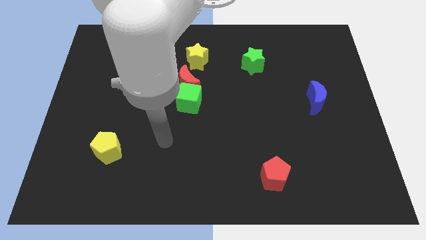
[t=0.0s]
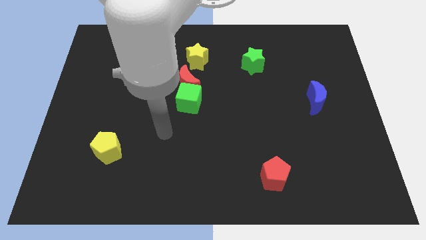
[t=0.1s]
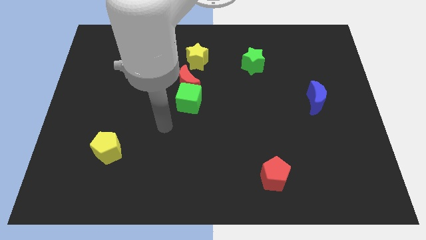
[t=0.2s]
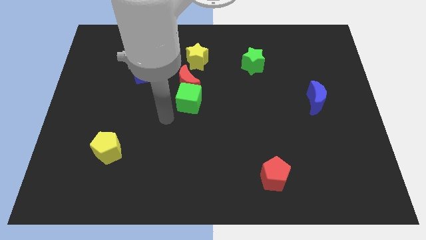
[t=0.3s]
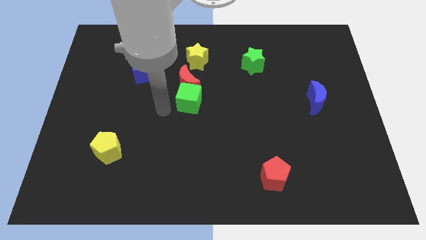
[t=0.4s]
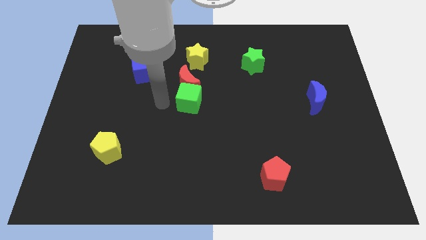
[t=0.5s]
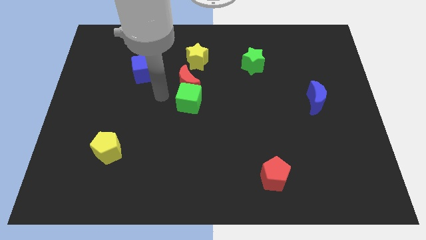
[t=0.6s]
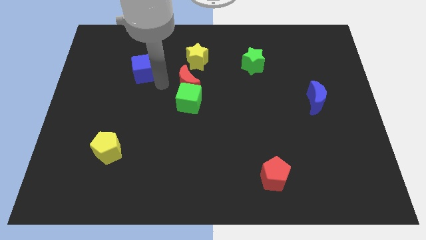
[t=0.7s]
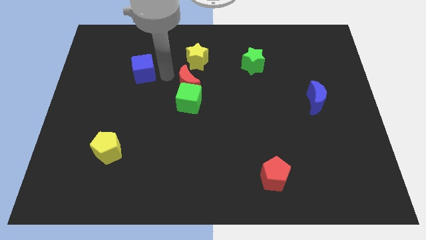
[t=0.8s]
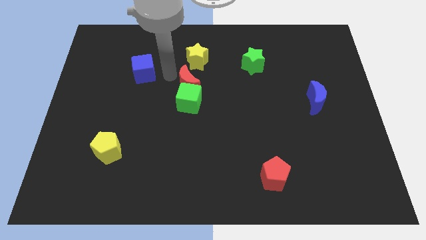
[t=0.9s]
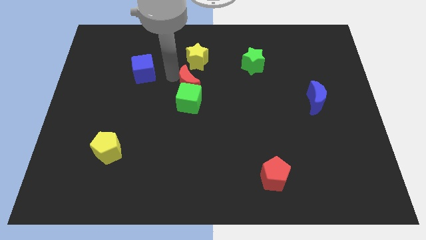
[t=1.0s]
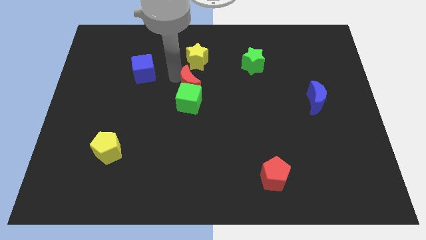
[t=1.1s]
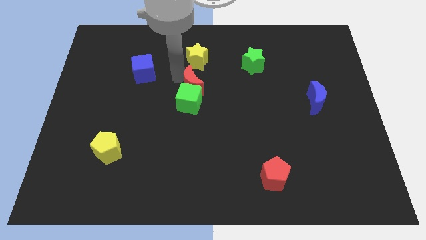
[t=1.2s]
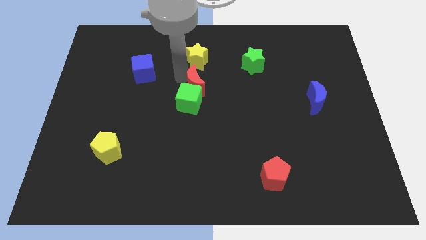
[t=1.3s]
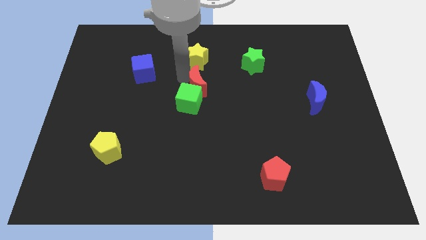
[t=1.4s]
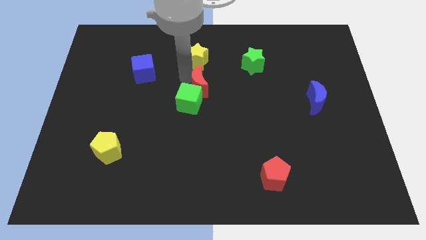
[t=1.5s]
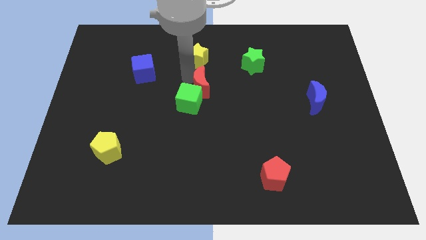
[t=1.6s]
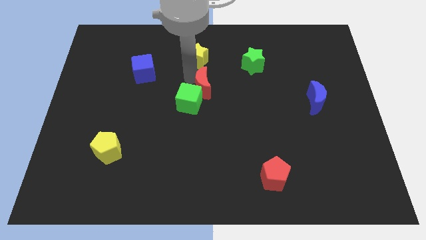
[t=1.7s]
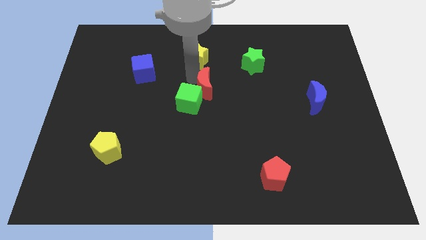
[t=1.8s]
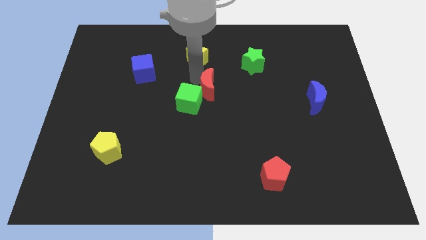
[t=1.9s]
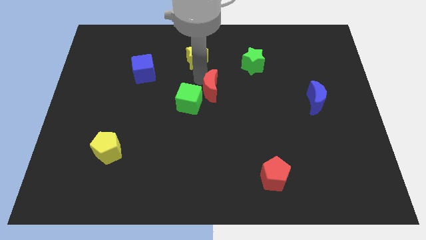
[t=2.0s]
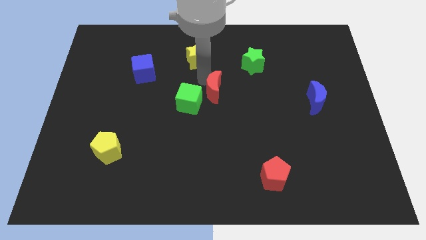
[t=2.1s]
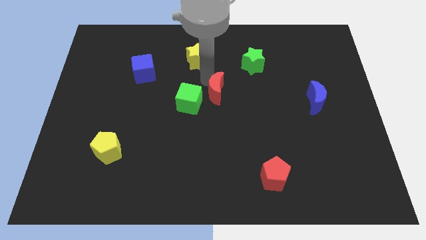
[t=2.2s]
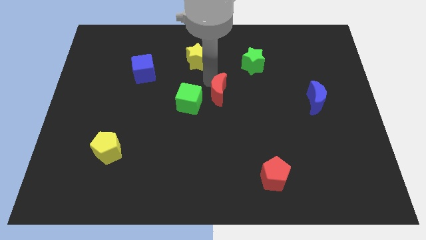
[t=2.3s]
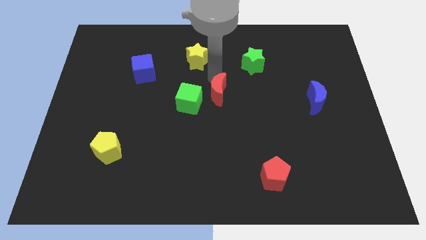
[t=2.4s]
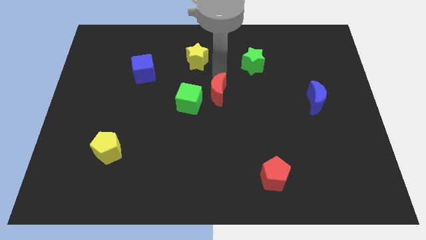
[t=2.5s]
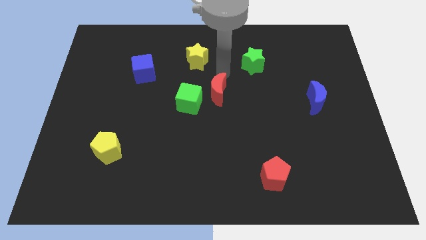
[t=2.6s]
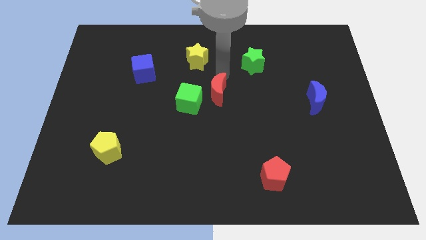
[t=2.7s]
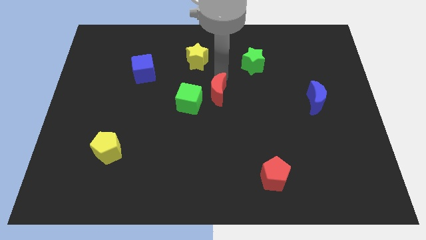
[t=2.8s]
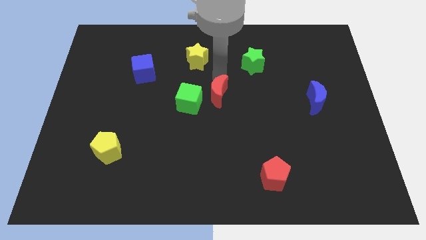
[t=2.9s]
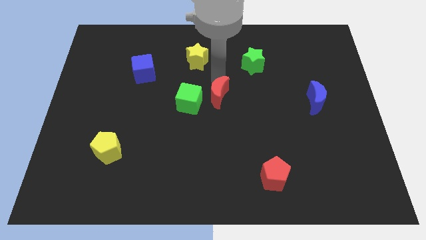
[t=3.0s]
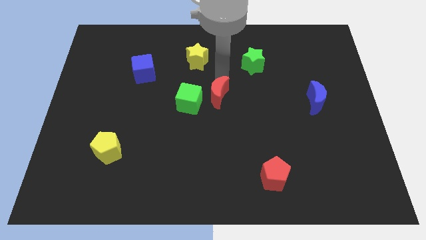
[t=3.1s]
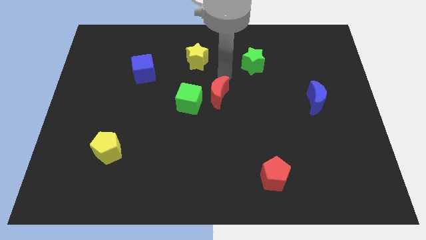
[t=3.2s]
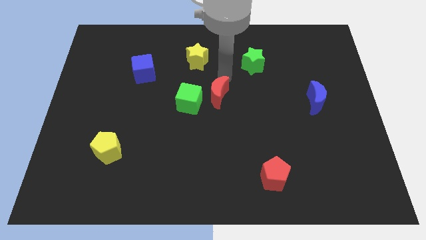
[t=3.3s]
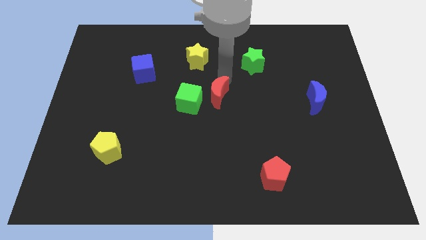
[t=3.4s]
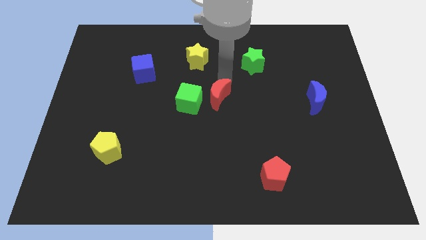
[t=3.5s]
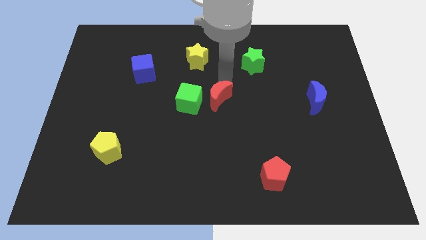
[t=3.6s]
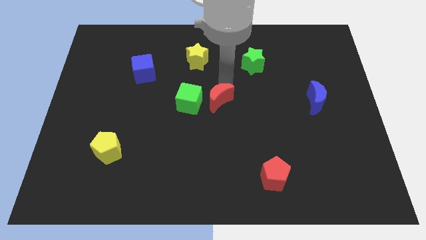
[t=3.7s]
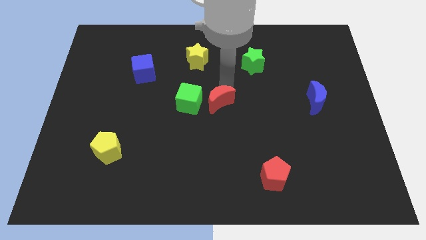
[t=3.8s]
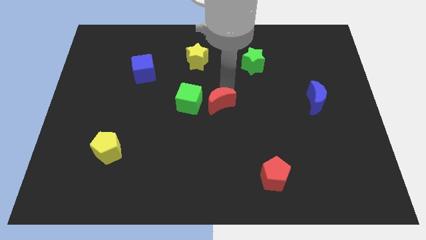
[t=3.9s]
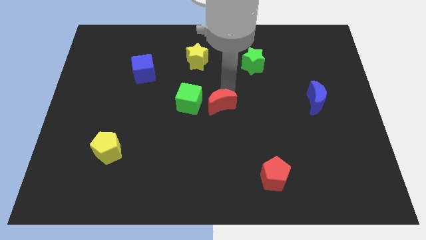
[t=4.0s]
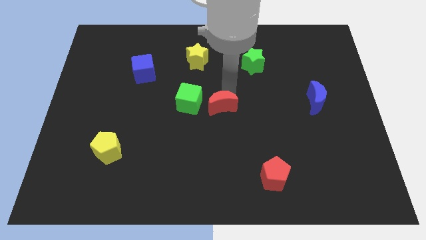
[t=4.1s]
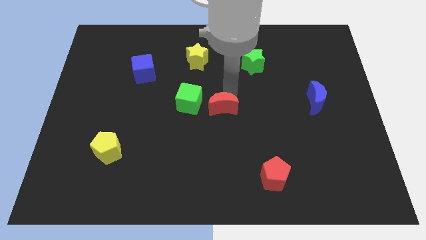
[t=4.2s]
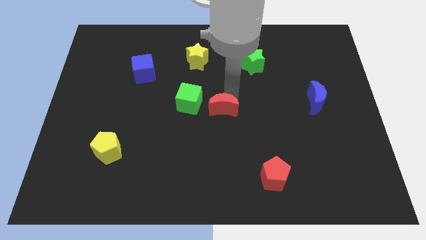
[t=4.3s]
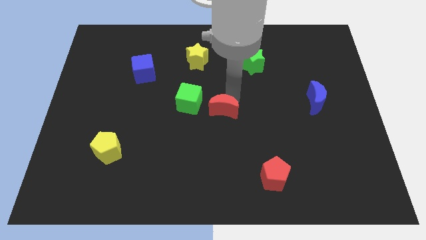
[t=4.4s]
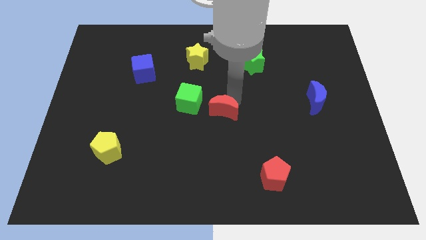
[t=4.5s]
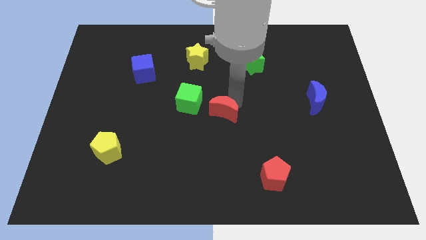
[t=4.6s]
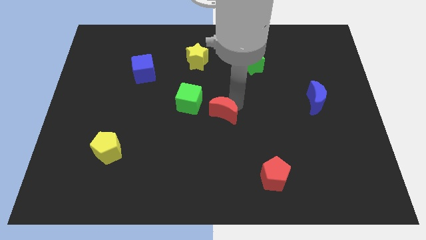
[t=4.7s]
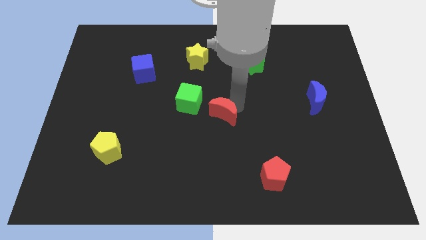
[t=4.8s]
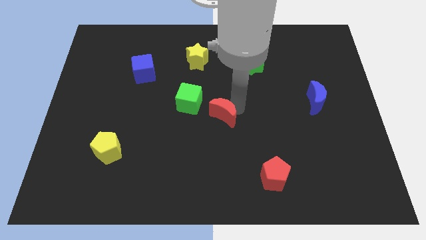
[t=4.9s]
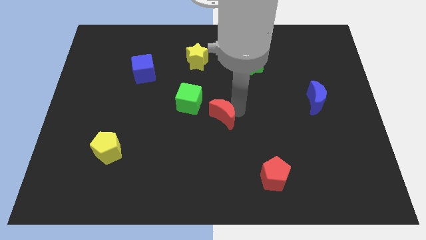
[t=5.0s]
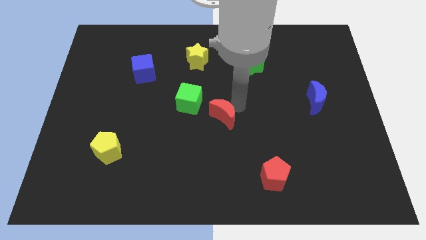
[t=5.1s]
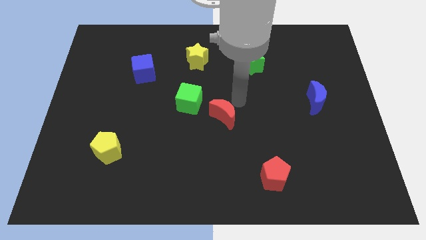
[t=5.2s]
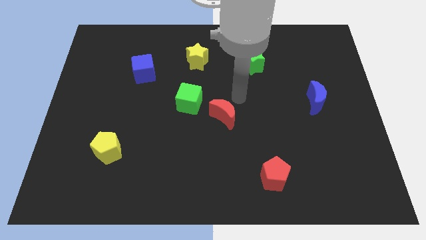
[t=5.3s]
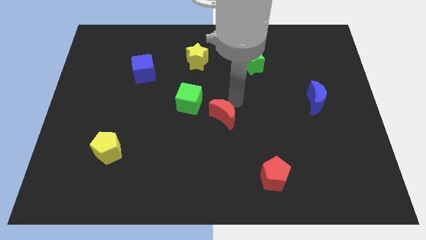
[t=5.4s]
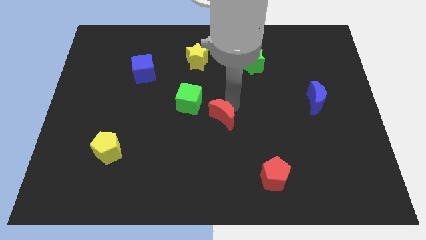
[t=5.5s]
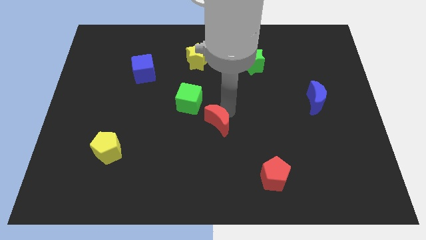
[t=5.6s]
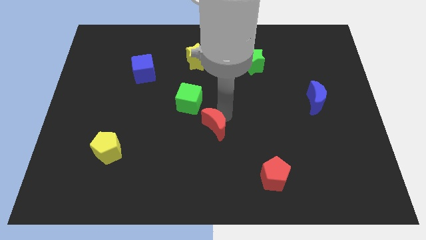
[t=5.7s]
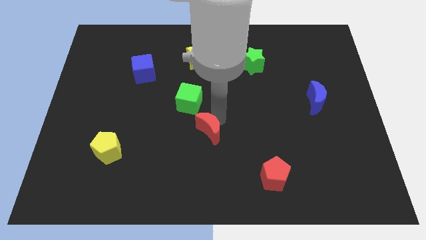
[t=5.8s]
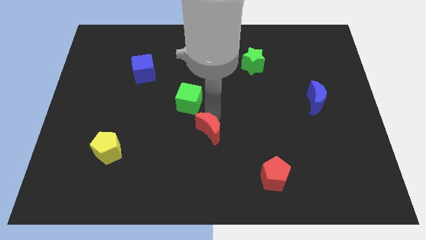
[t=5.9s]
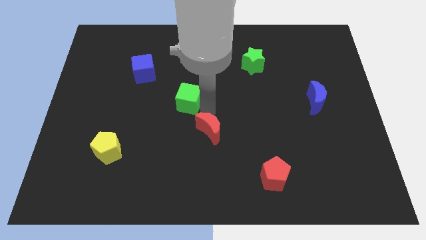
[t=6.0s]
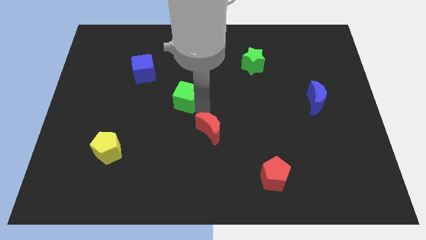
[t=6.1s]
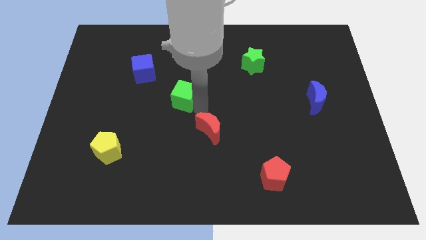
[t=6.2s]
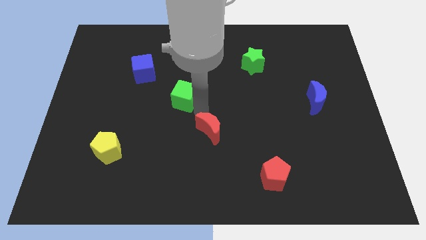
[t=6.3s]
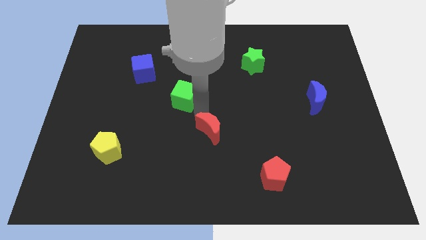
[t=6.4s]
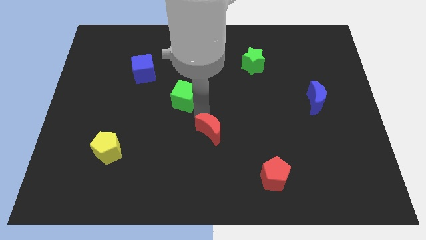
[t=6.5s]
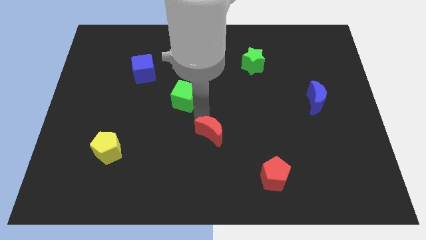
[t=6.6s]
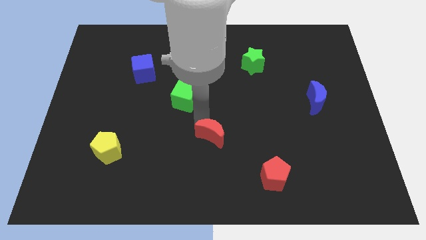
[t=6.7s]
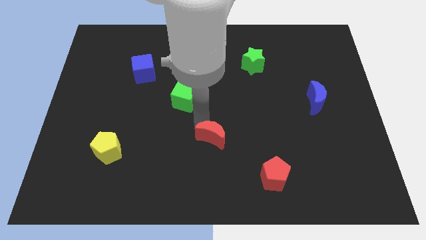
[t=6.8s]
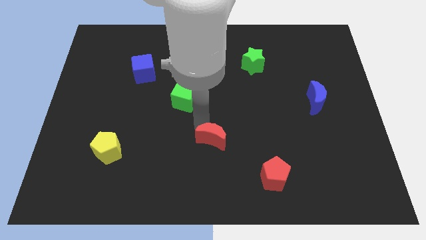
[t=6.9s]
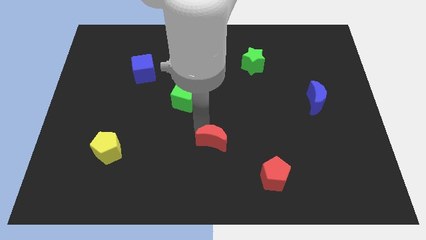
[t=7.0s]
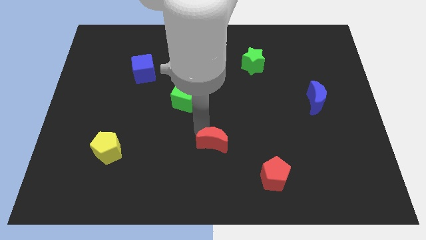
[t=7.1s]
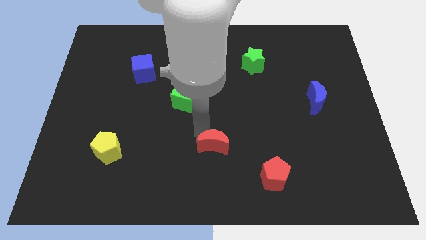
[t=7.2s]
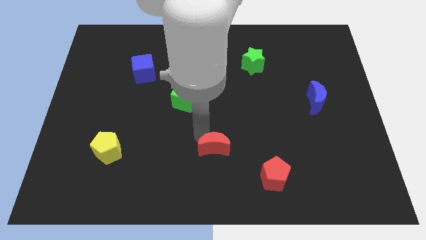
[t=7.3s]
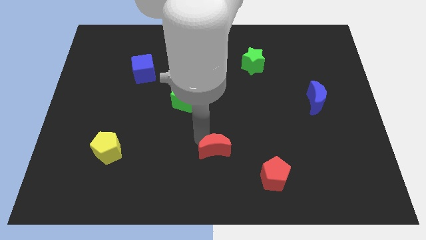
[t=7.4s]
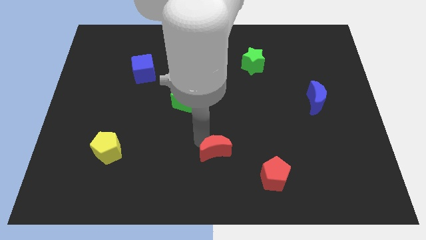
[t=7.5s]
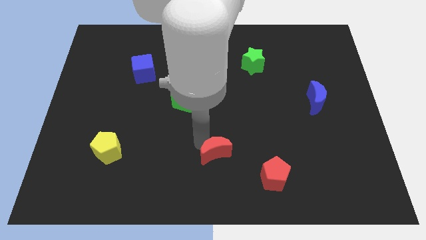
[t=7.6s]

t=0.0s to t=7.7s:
push the red moon to the bottom

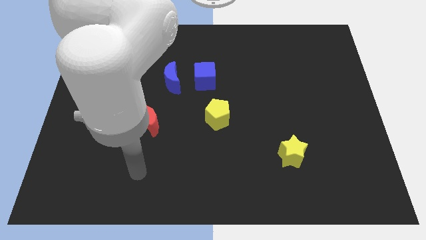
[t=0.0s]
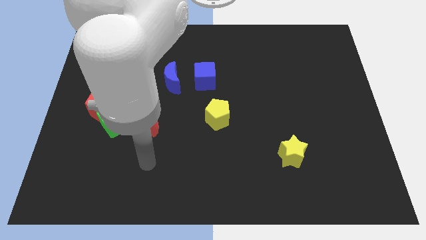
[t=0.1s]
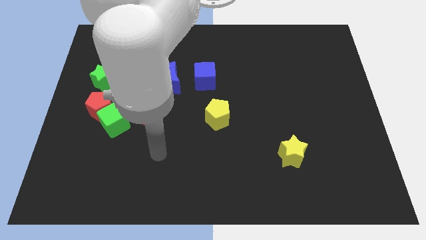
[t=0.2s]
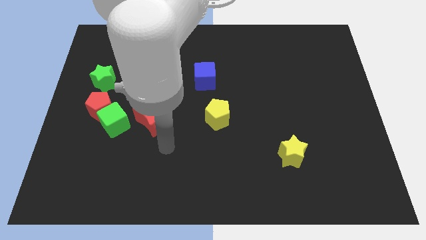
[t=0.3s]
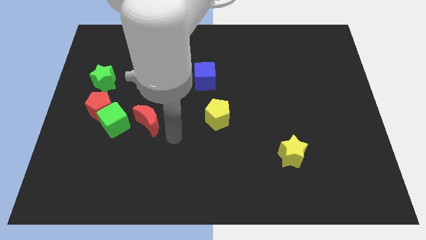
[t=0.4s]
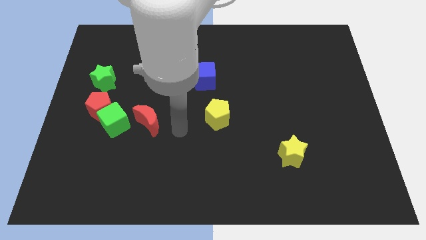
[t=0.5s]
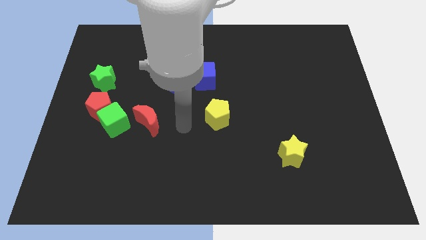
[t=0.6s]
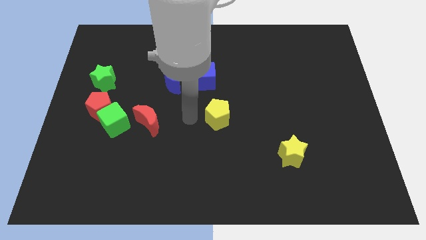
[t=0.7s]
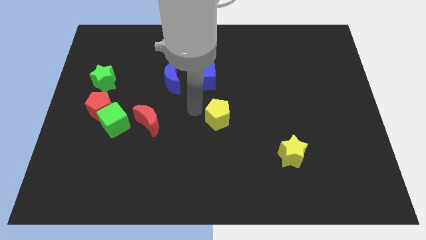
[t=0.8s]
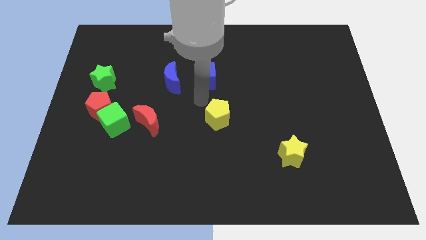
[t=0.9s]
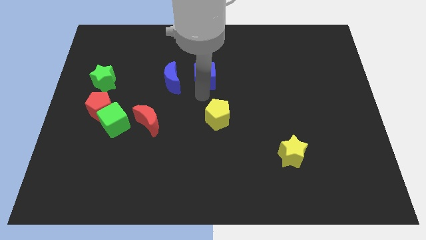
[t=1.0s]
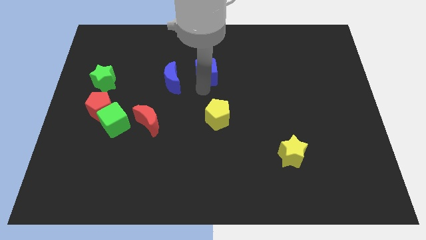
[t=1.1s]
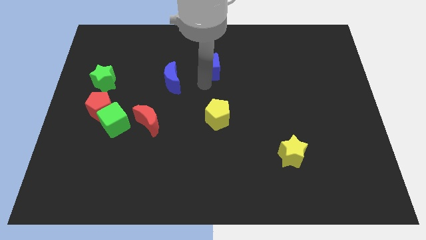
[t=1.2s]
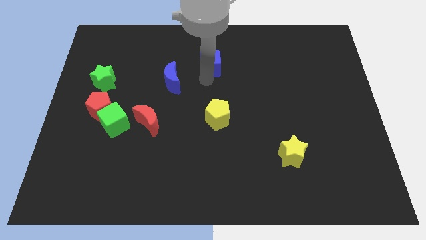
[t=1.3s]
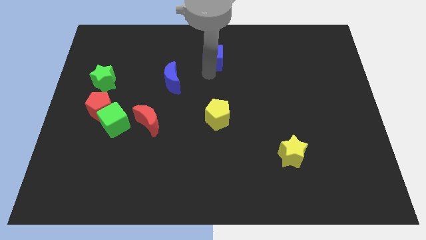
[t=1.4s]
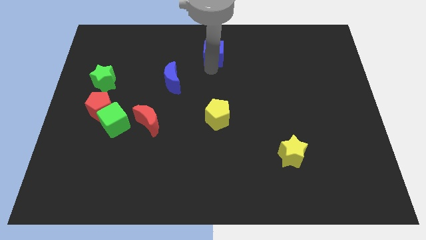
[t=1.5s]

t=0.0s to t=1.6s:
put the blue cube to the top
